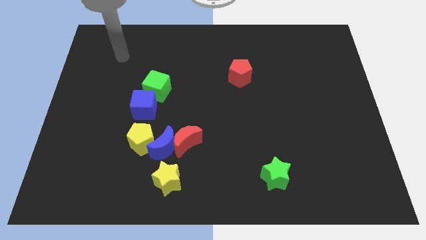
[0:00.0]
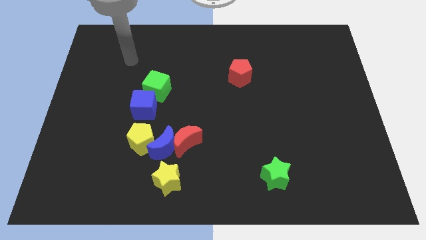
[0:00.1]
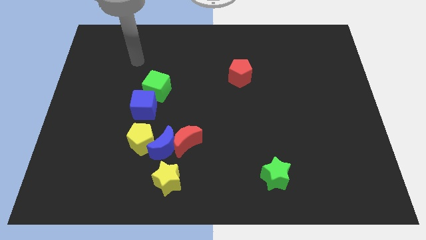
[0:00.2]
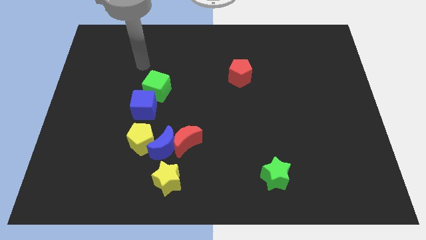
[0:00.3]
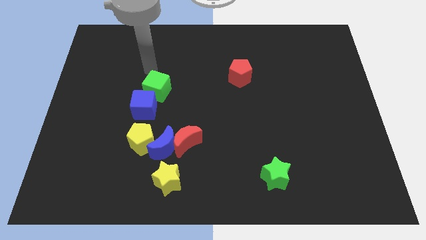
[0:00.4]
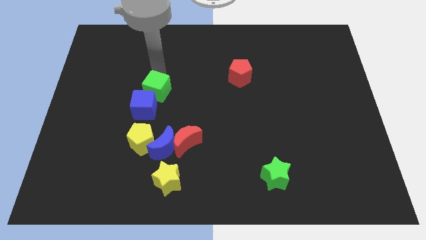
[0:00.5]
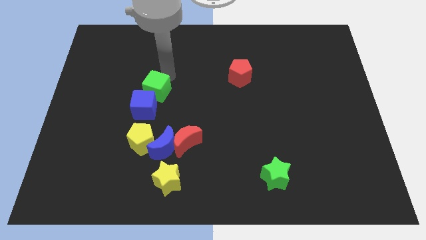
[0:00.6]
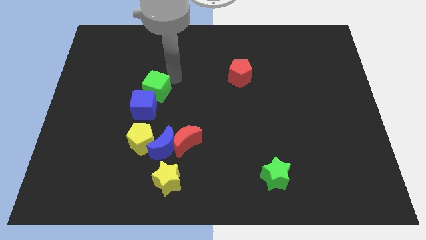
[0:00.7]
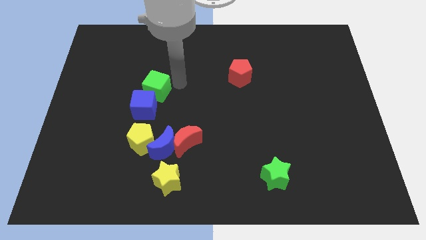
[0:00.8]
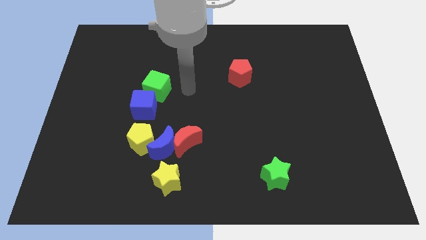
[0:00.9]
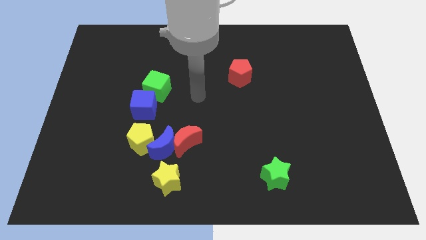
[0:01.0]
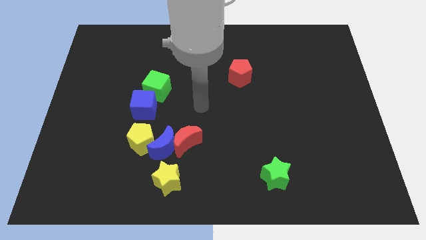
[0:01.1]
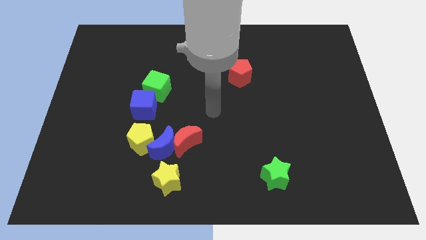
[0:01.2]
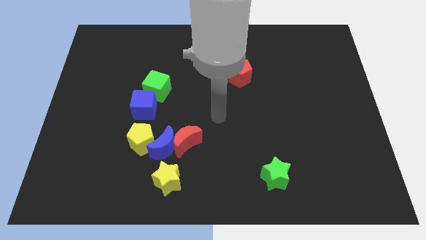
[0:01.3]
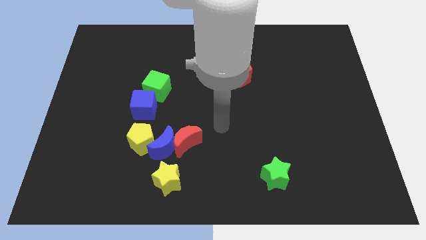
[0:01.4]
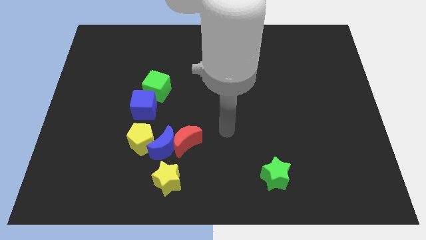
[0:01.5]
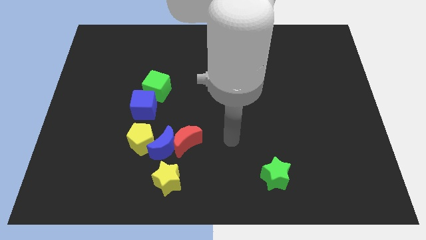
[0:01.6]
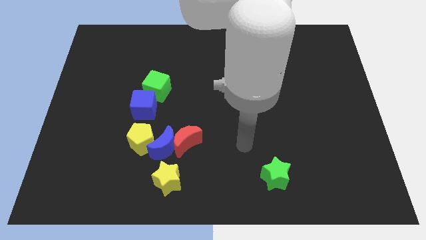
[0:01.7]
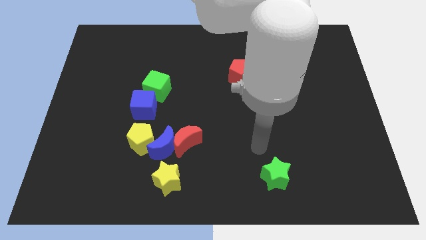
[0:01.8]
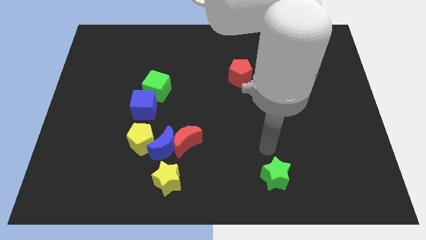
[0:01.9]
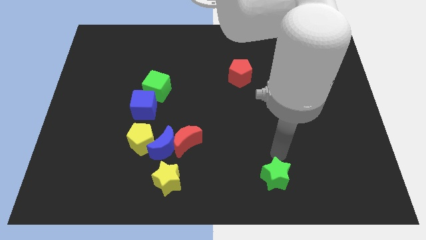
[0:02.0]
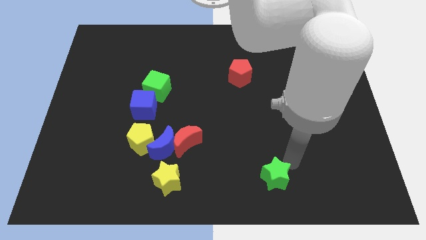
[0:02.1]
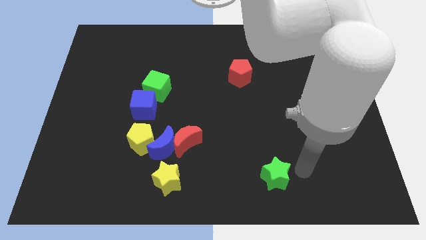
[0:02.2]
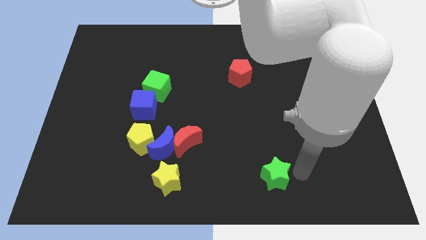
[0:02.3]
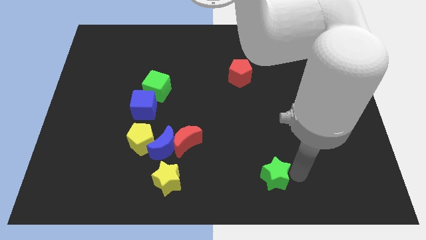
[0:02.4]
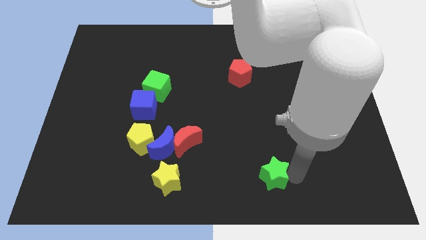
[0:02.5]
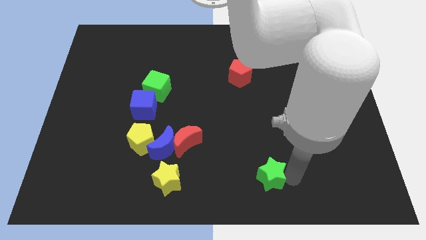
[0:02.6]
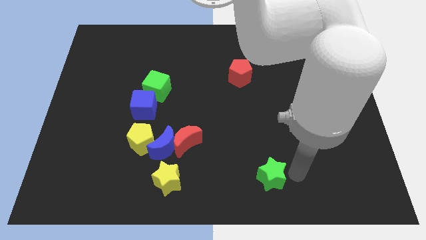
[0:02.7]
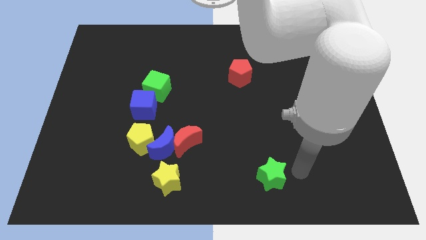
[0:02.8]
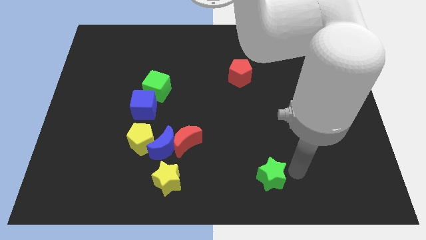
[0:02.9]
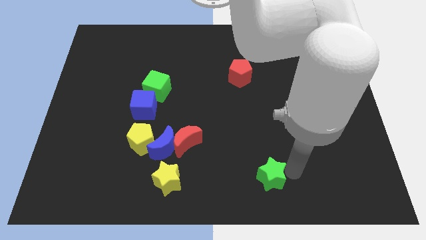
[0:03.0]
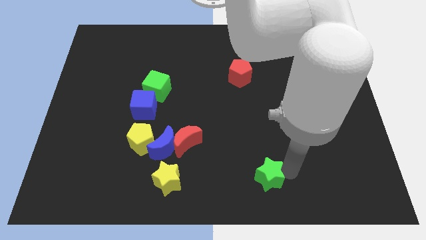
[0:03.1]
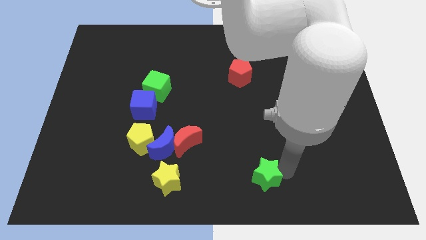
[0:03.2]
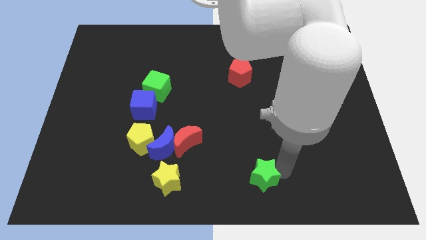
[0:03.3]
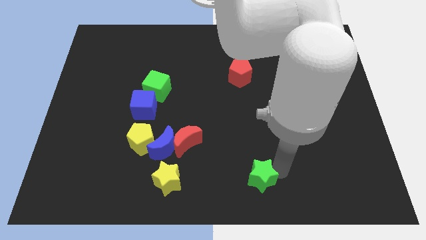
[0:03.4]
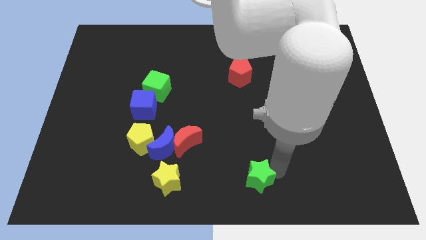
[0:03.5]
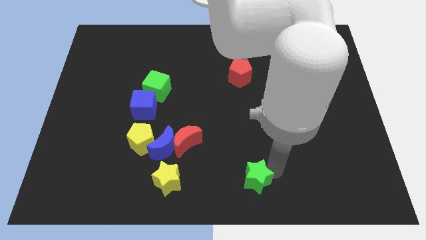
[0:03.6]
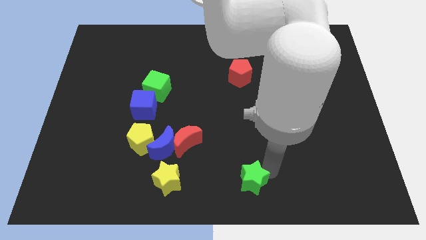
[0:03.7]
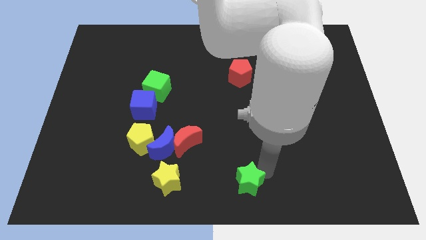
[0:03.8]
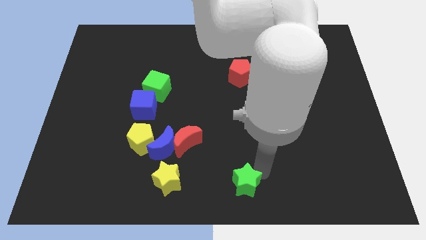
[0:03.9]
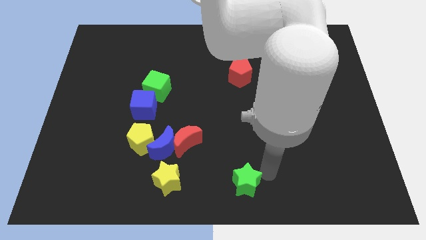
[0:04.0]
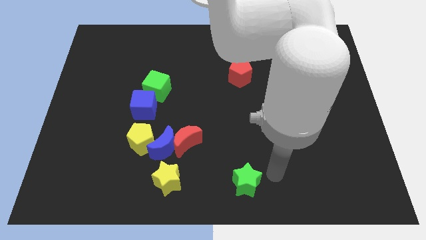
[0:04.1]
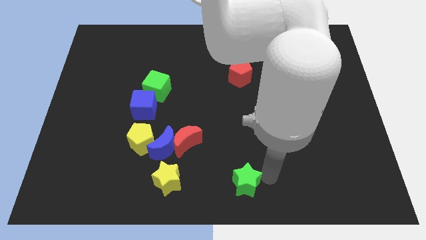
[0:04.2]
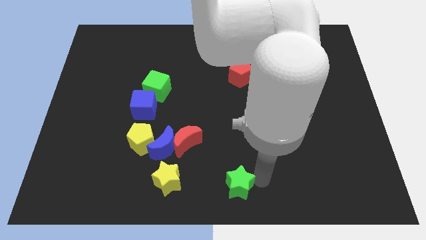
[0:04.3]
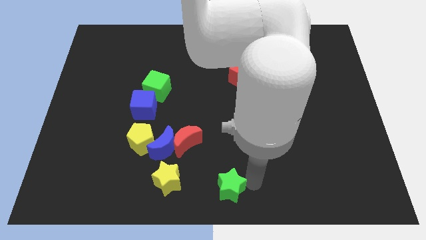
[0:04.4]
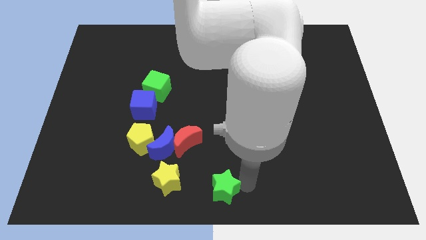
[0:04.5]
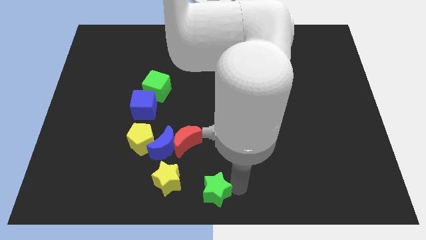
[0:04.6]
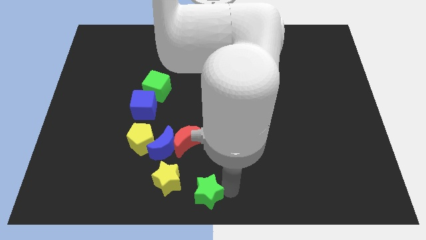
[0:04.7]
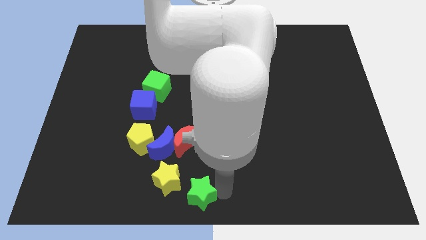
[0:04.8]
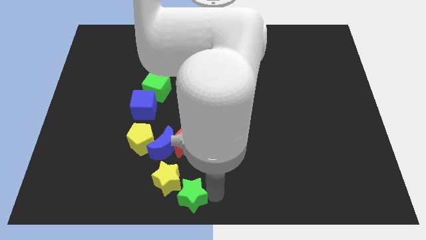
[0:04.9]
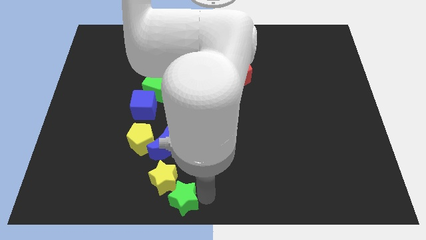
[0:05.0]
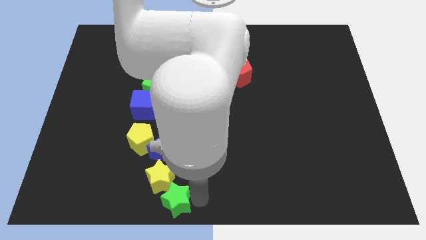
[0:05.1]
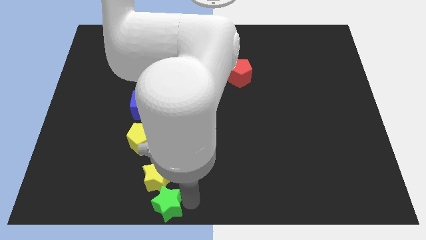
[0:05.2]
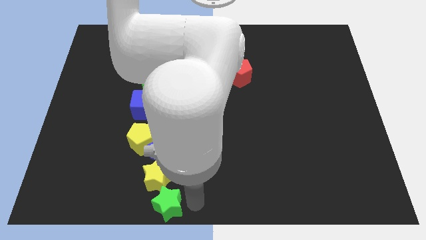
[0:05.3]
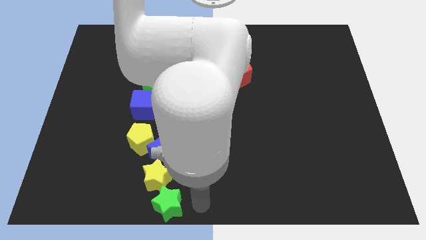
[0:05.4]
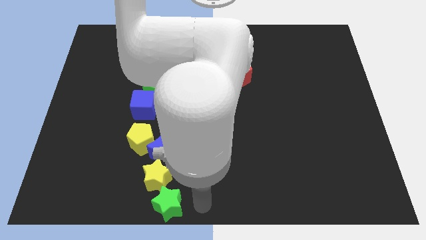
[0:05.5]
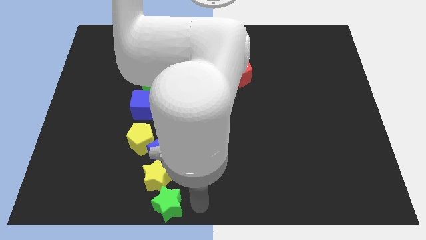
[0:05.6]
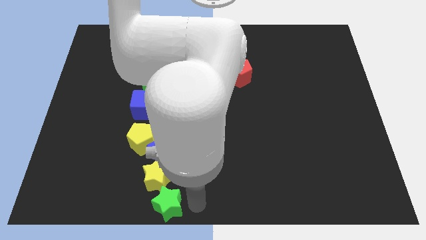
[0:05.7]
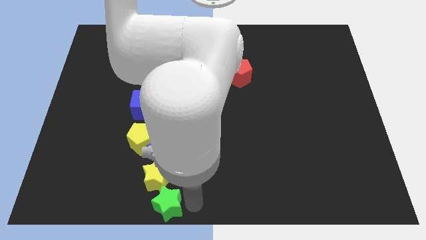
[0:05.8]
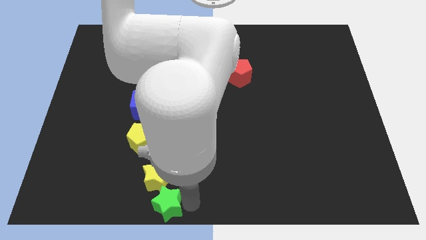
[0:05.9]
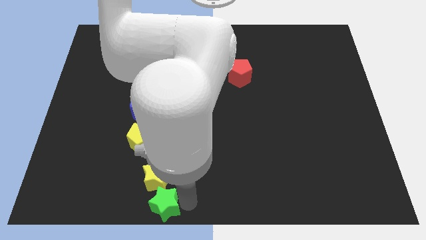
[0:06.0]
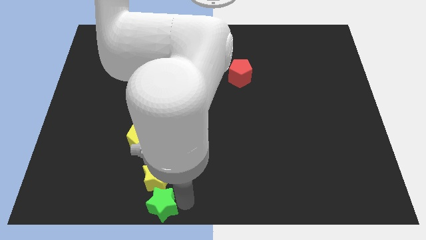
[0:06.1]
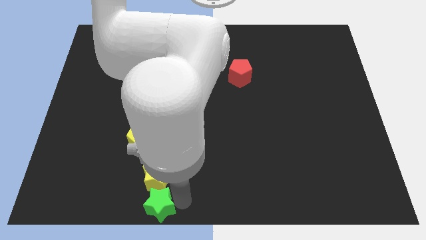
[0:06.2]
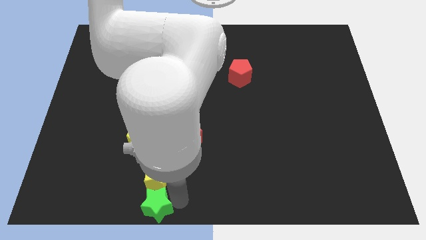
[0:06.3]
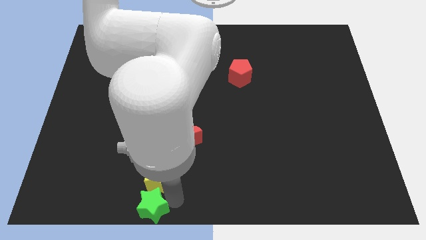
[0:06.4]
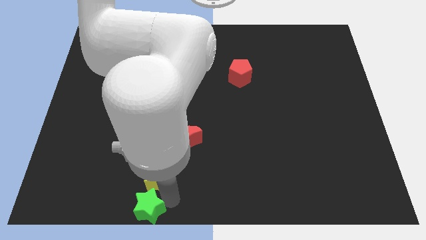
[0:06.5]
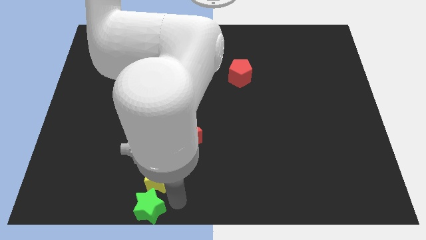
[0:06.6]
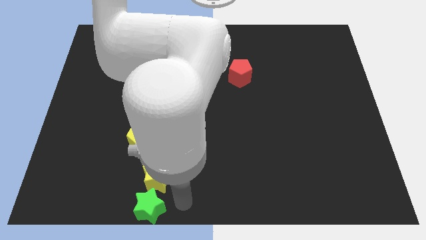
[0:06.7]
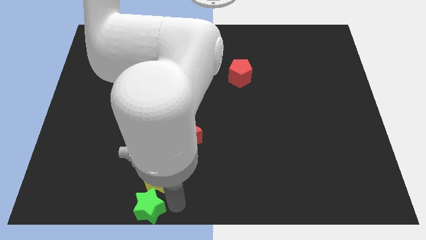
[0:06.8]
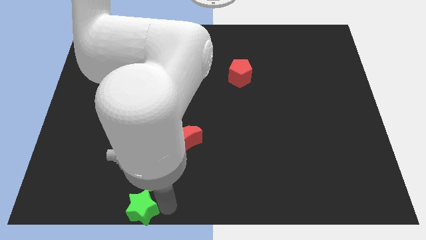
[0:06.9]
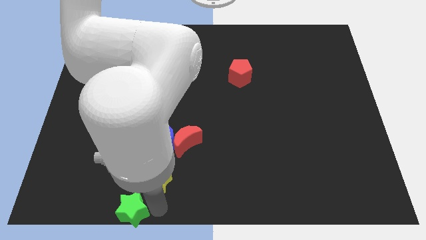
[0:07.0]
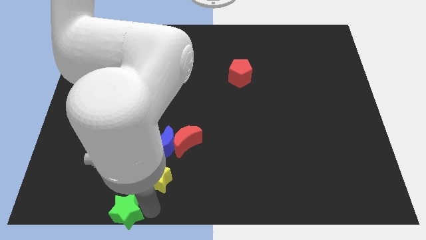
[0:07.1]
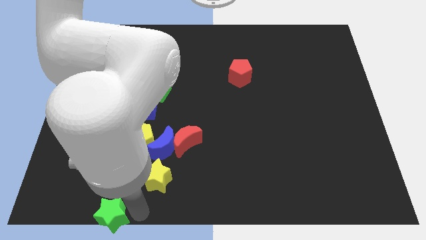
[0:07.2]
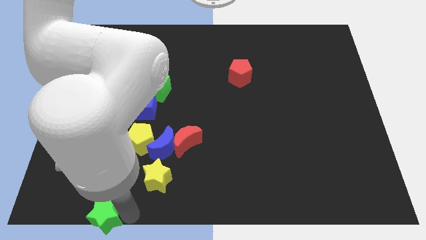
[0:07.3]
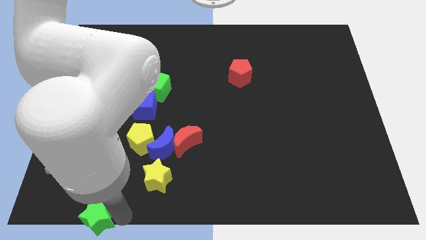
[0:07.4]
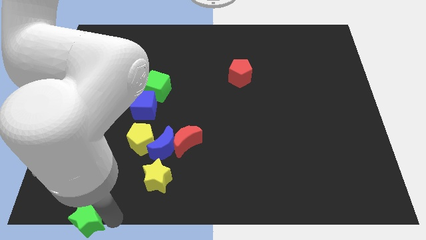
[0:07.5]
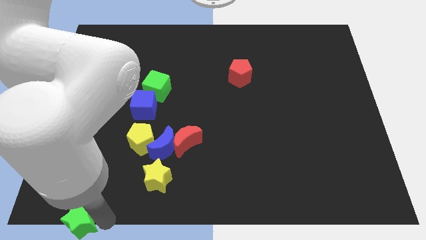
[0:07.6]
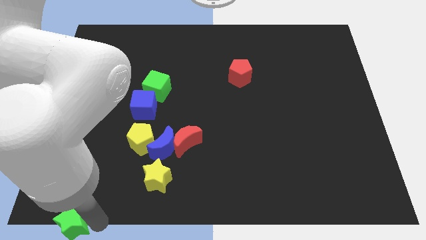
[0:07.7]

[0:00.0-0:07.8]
put the green star to the bottom left corner
